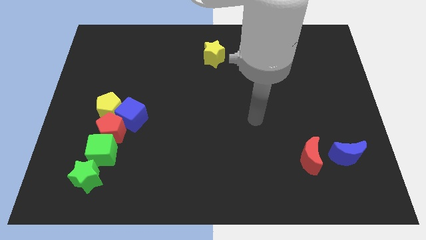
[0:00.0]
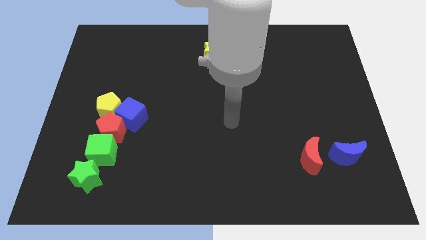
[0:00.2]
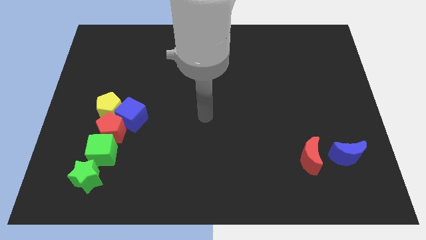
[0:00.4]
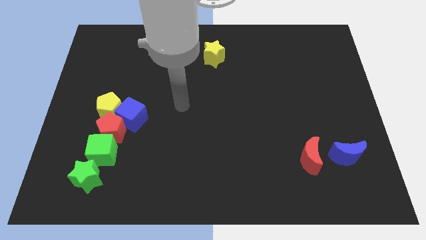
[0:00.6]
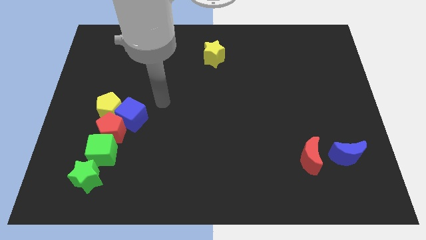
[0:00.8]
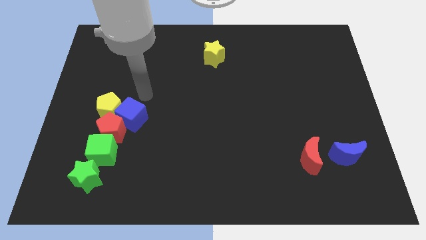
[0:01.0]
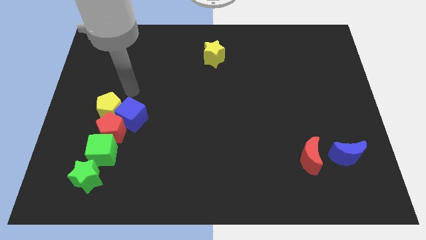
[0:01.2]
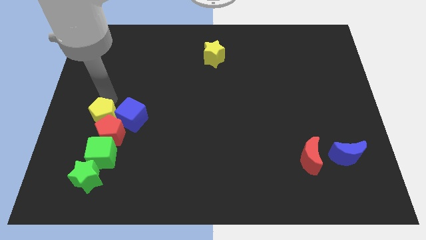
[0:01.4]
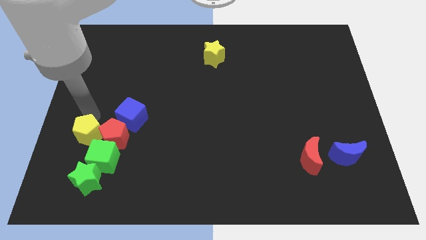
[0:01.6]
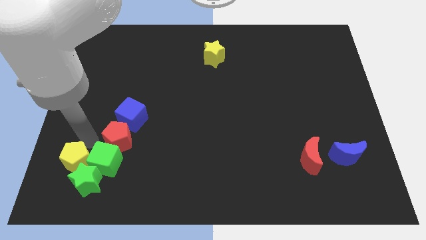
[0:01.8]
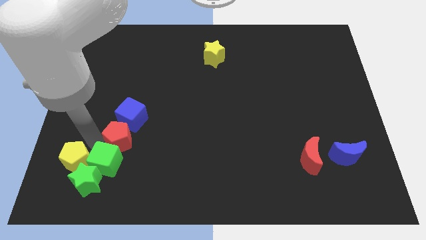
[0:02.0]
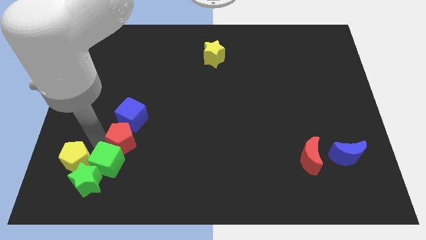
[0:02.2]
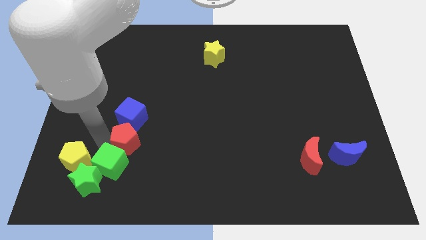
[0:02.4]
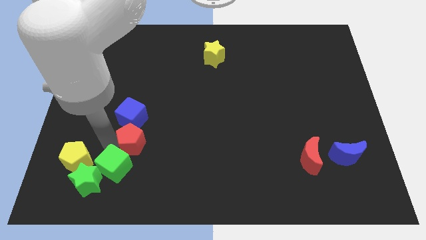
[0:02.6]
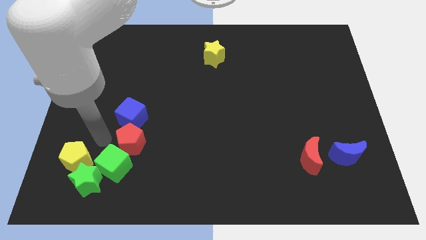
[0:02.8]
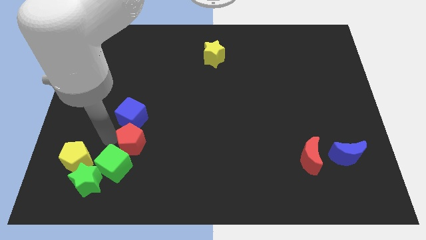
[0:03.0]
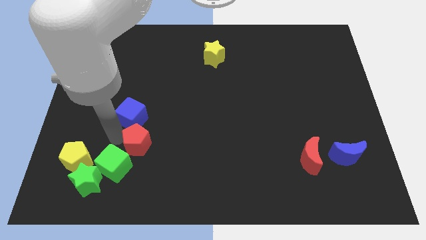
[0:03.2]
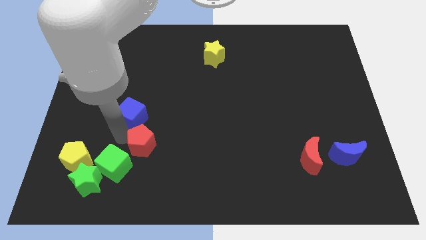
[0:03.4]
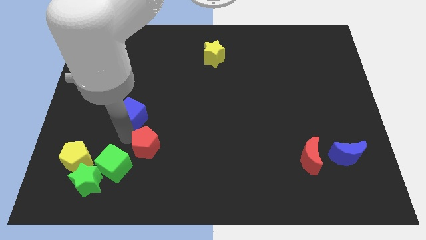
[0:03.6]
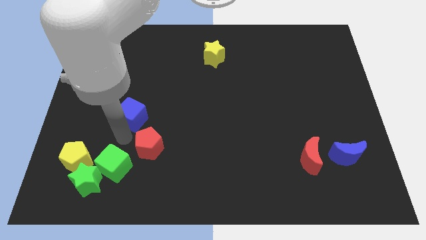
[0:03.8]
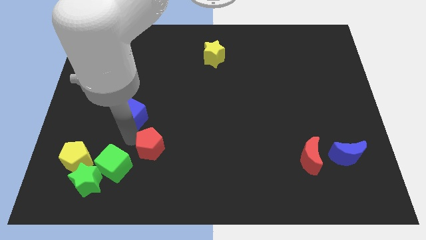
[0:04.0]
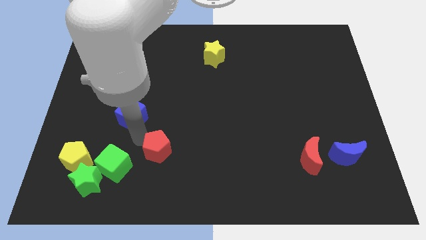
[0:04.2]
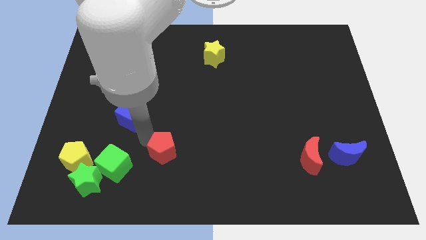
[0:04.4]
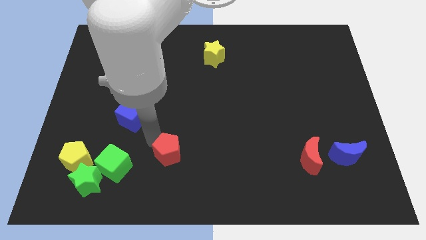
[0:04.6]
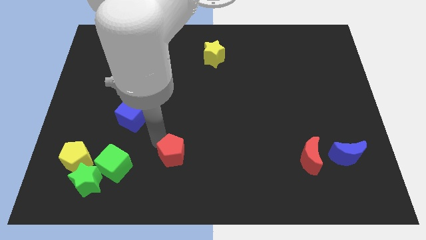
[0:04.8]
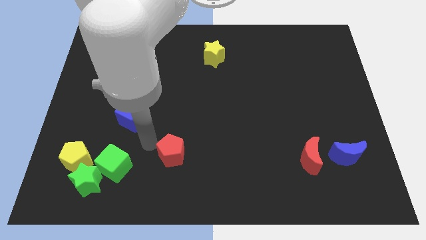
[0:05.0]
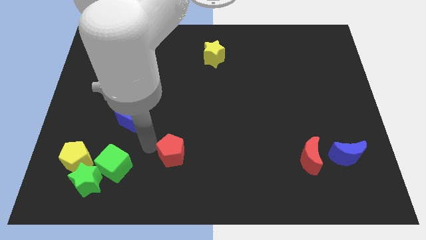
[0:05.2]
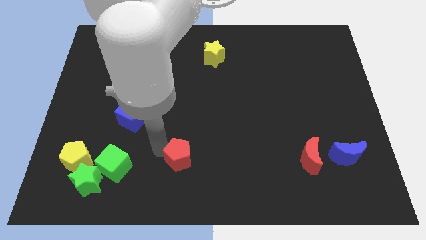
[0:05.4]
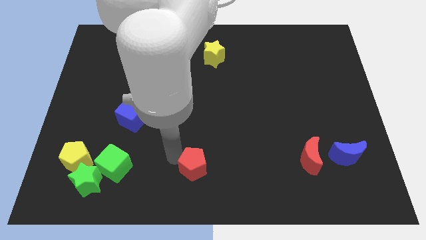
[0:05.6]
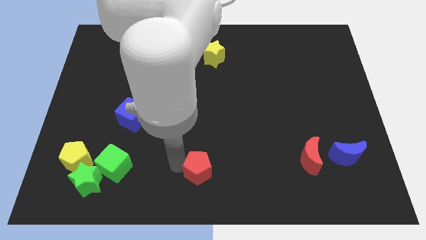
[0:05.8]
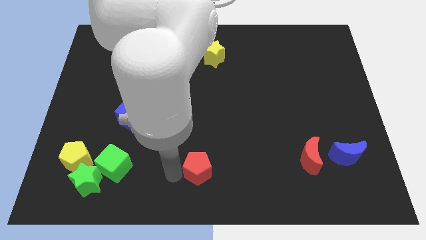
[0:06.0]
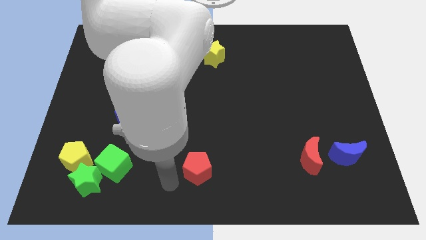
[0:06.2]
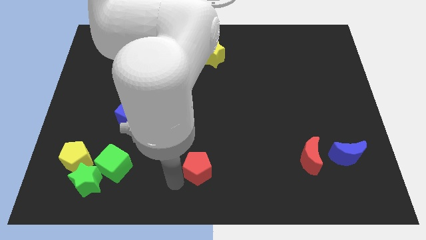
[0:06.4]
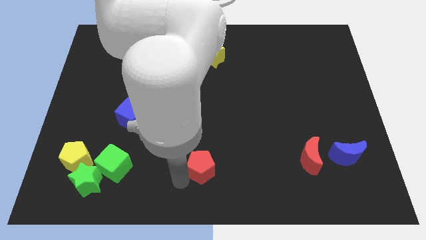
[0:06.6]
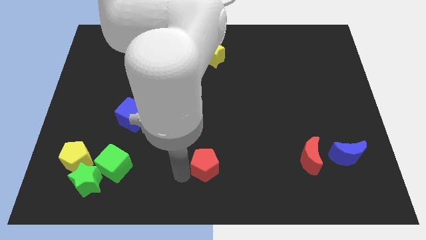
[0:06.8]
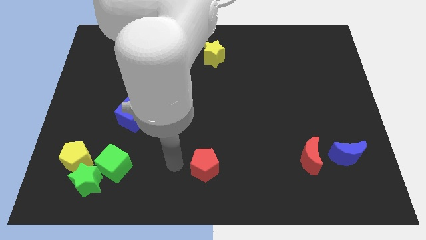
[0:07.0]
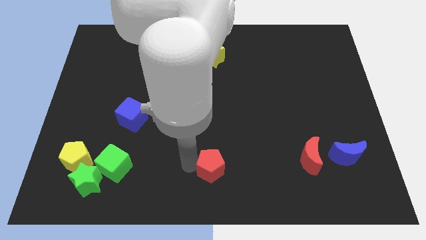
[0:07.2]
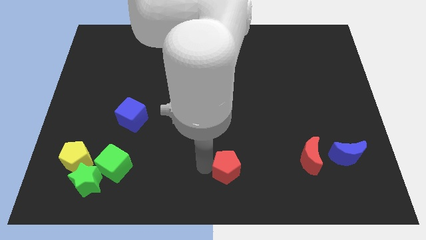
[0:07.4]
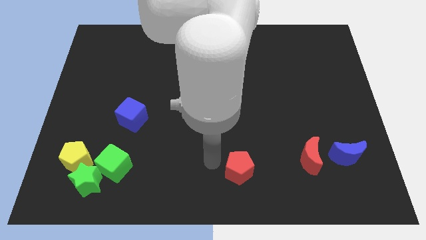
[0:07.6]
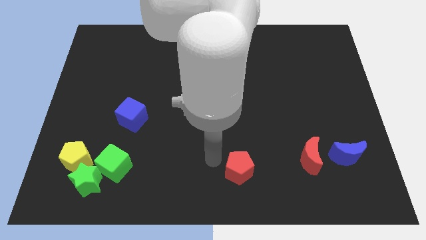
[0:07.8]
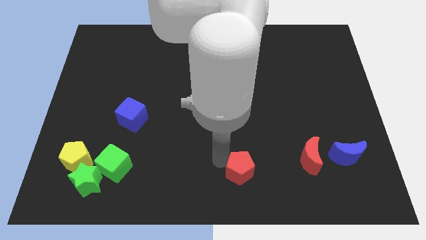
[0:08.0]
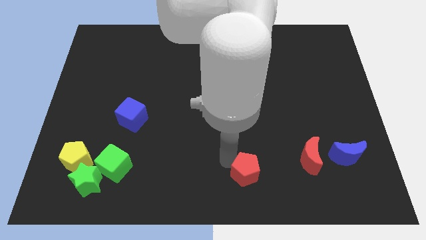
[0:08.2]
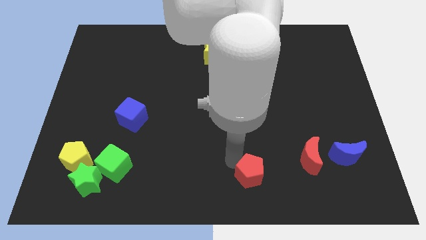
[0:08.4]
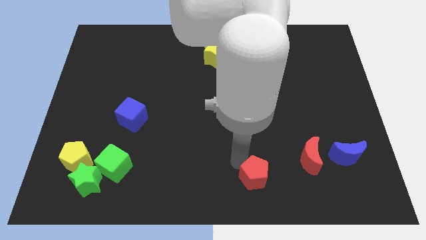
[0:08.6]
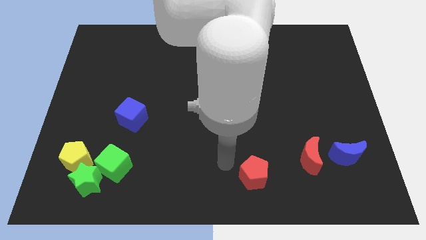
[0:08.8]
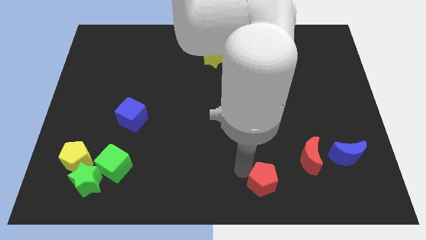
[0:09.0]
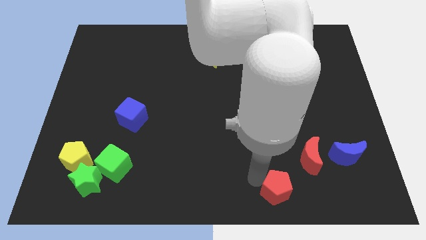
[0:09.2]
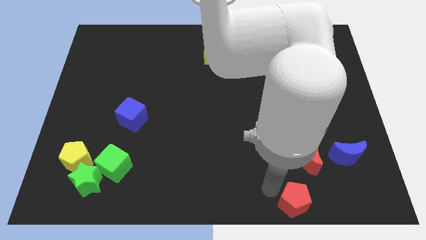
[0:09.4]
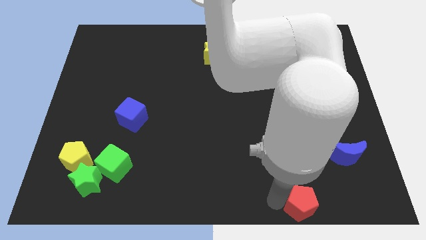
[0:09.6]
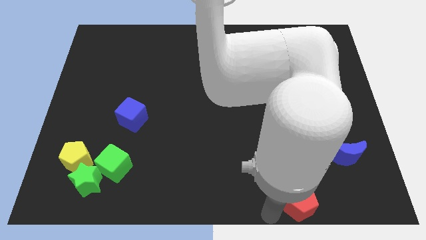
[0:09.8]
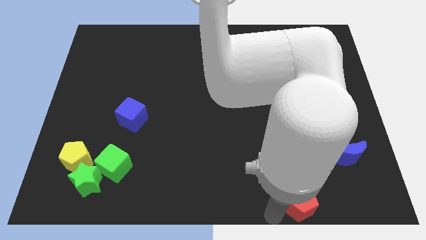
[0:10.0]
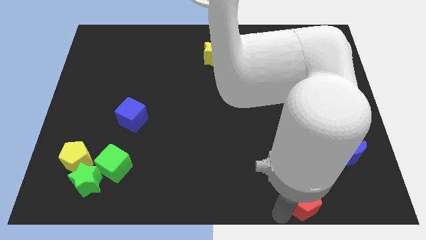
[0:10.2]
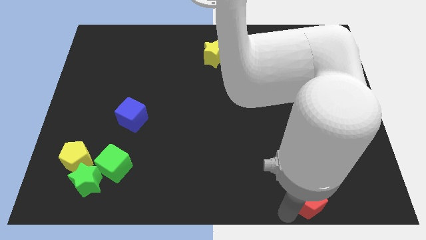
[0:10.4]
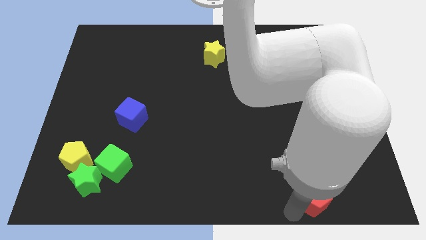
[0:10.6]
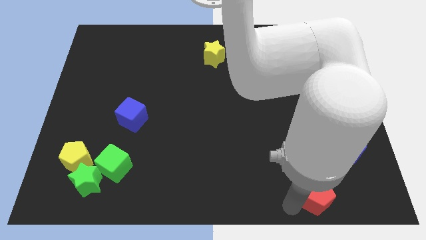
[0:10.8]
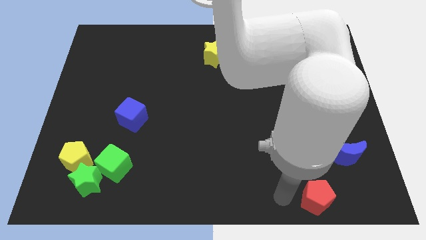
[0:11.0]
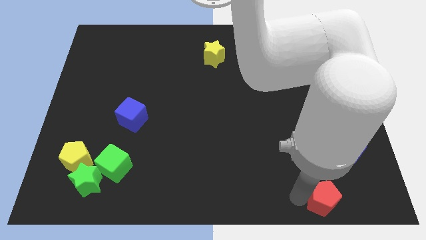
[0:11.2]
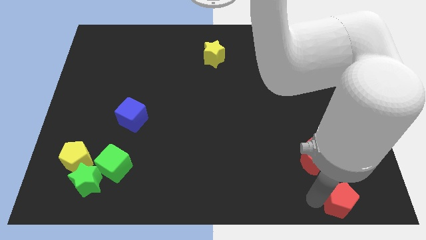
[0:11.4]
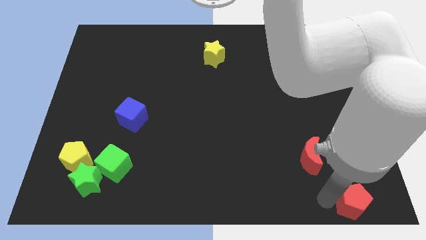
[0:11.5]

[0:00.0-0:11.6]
push the red pentagon to the bottom right corner
